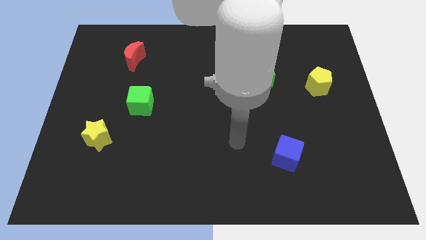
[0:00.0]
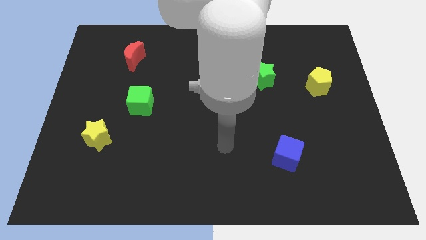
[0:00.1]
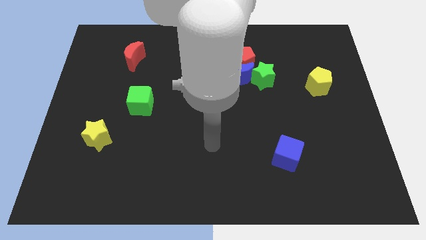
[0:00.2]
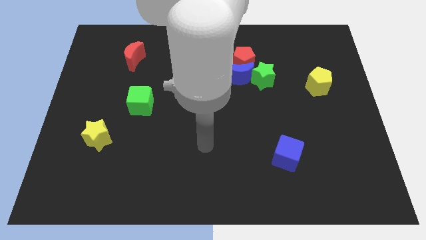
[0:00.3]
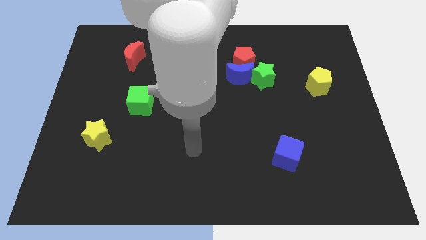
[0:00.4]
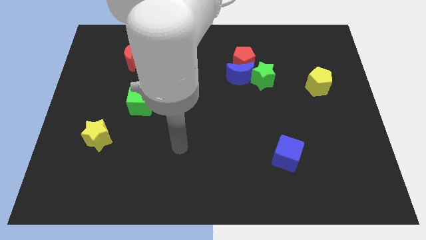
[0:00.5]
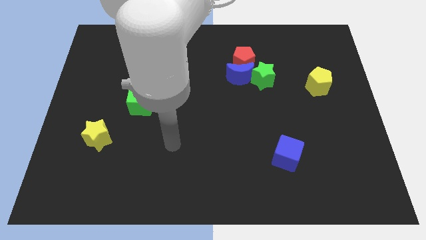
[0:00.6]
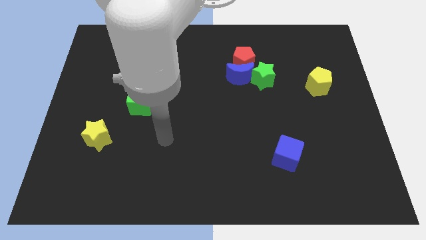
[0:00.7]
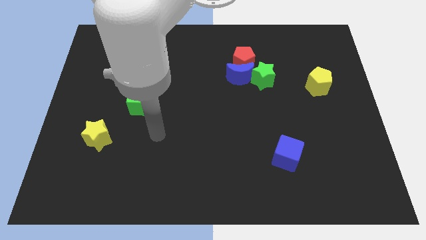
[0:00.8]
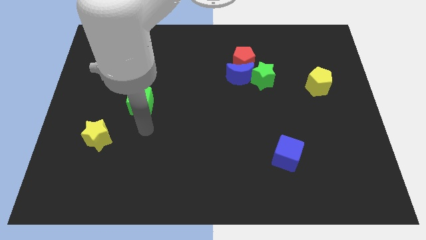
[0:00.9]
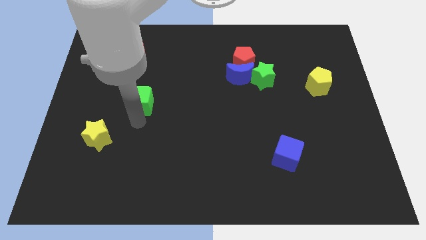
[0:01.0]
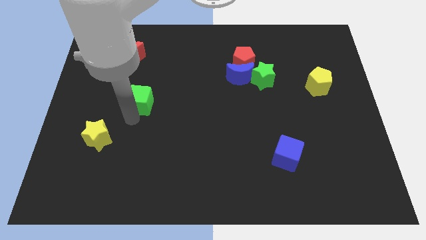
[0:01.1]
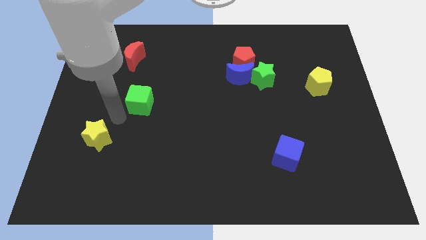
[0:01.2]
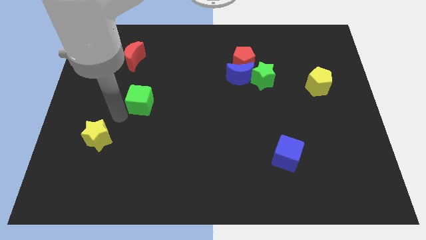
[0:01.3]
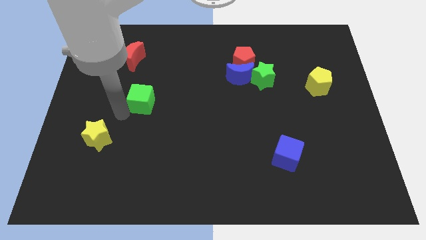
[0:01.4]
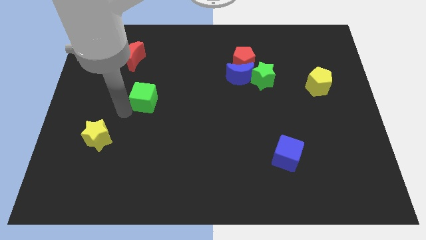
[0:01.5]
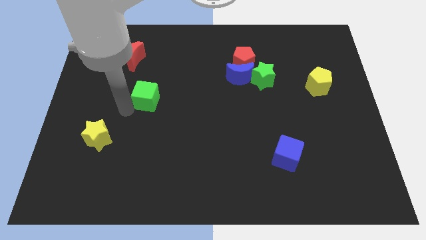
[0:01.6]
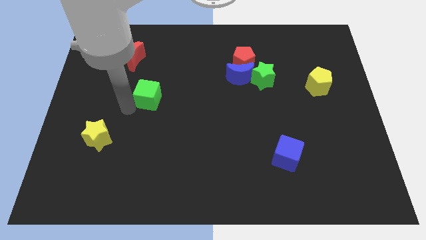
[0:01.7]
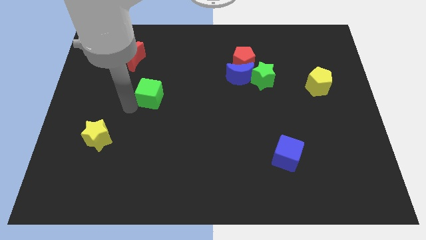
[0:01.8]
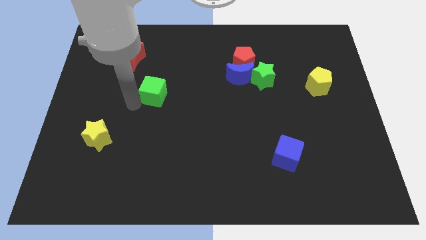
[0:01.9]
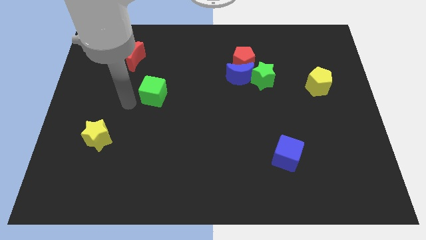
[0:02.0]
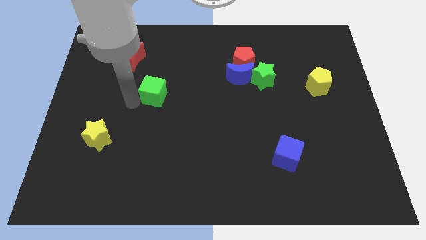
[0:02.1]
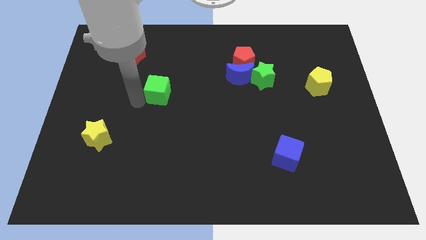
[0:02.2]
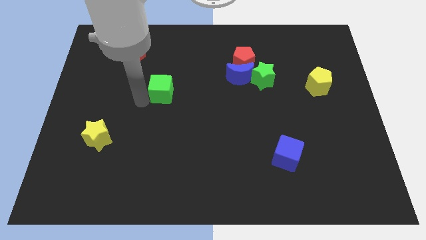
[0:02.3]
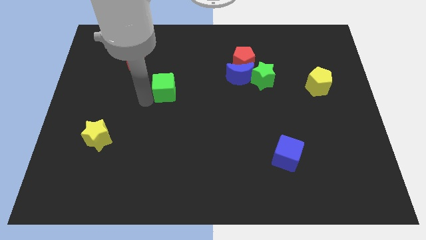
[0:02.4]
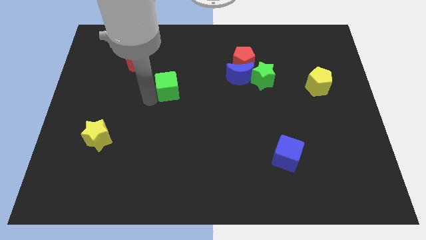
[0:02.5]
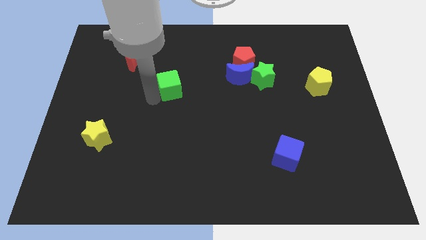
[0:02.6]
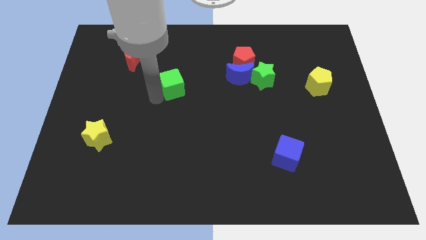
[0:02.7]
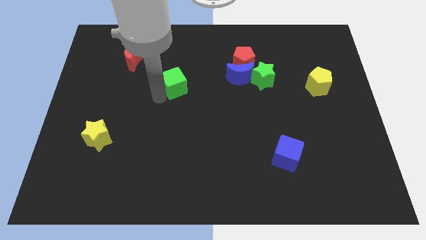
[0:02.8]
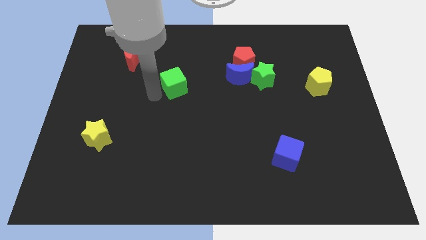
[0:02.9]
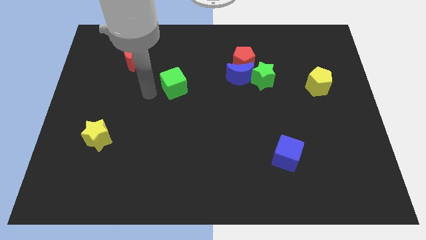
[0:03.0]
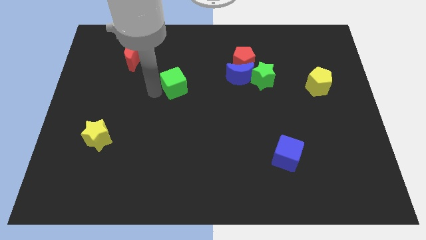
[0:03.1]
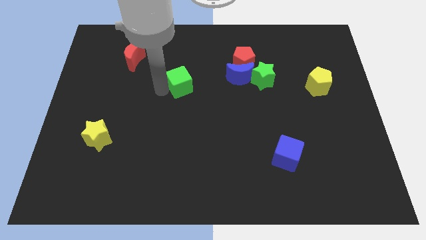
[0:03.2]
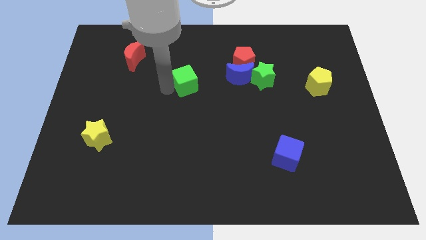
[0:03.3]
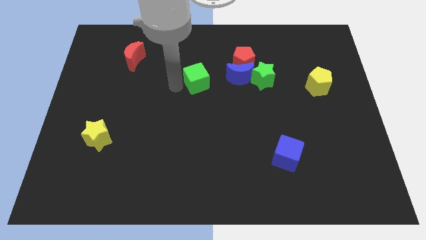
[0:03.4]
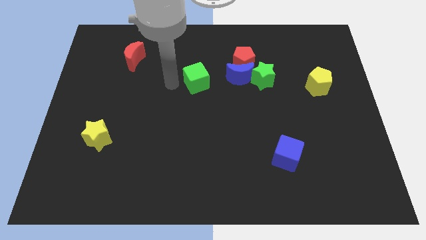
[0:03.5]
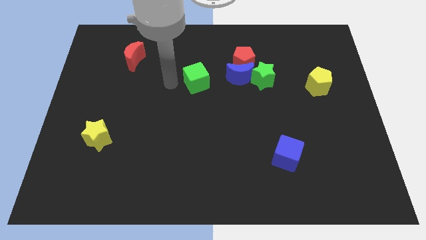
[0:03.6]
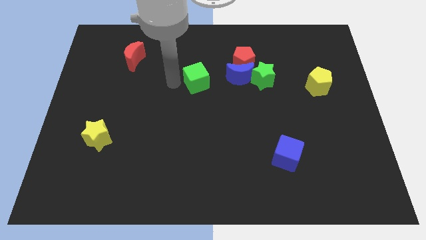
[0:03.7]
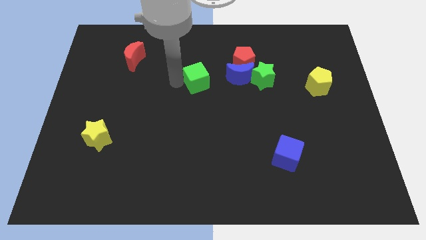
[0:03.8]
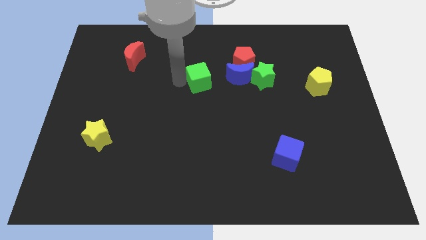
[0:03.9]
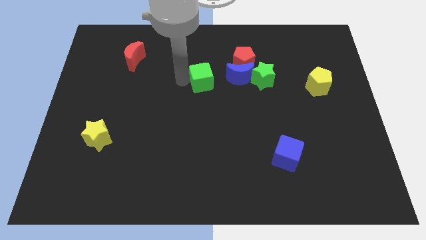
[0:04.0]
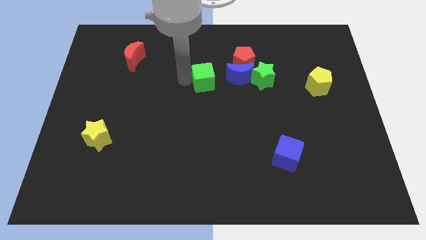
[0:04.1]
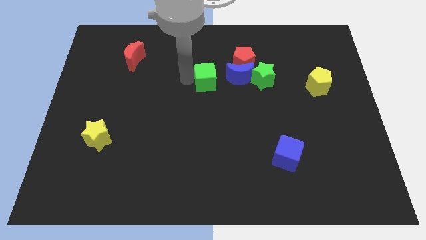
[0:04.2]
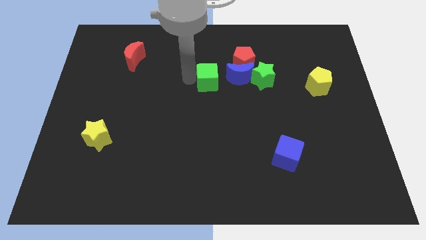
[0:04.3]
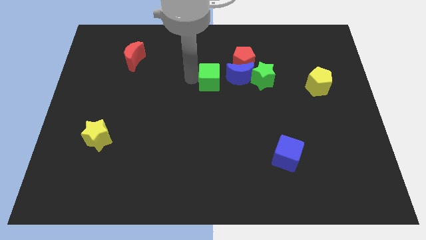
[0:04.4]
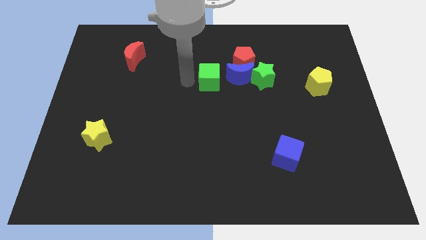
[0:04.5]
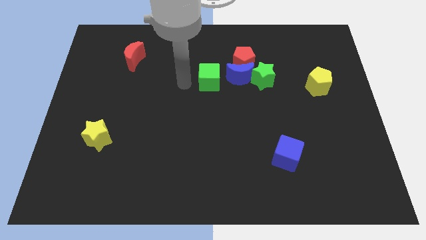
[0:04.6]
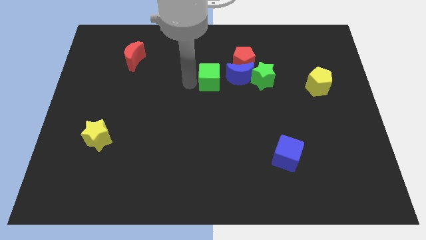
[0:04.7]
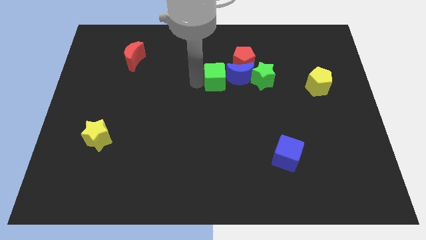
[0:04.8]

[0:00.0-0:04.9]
push the green cube to the blue moon

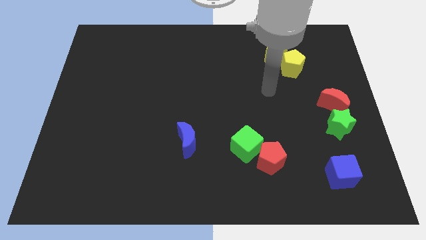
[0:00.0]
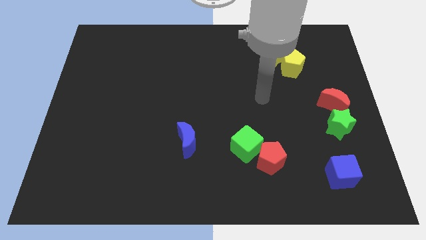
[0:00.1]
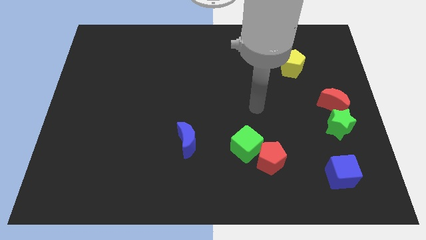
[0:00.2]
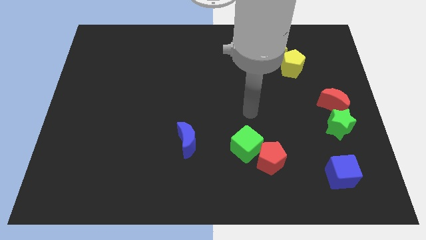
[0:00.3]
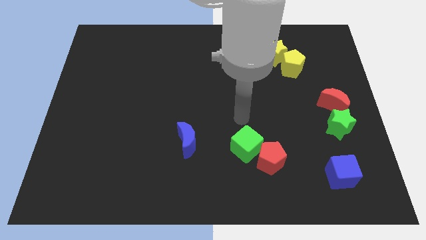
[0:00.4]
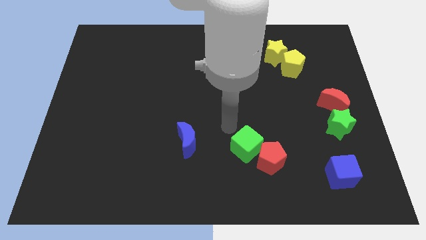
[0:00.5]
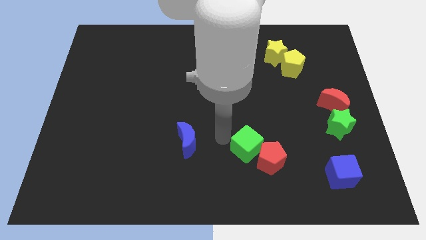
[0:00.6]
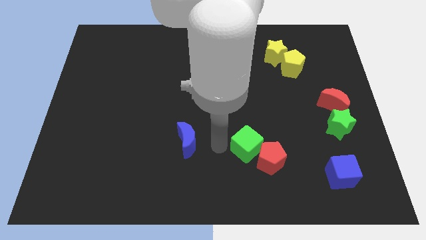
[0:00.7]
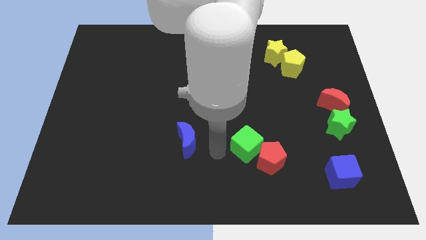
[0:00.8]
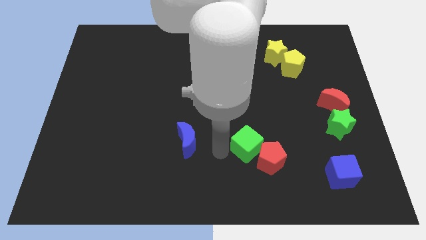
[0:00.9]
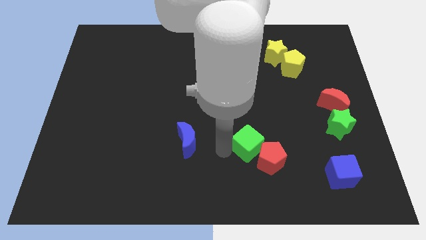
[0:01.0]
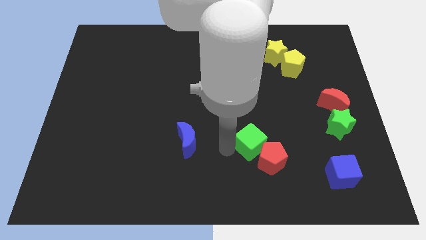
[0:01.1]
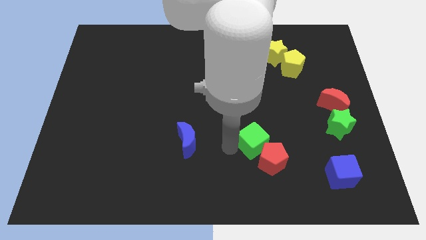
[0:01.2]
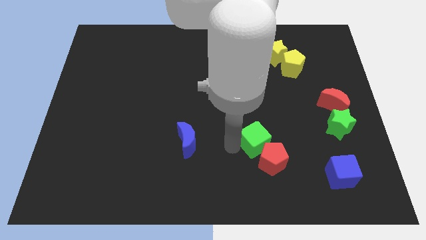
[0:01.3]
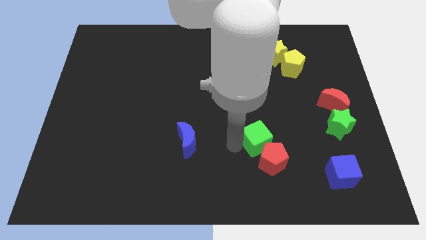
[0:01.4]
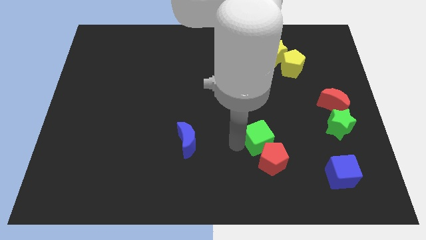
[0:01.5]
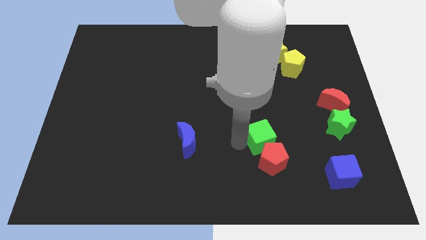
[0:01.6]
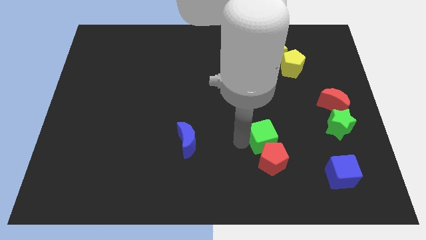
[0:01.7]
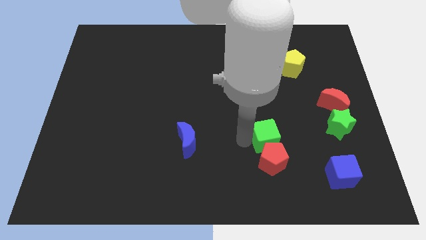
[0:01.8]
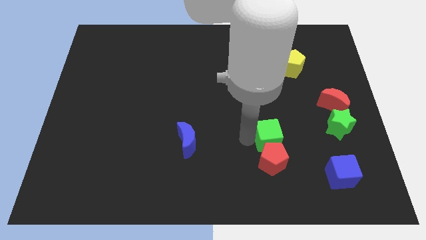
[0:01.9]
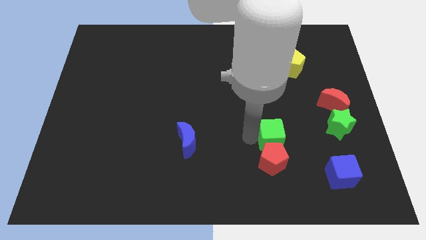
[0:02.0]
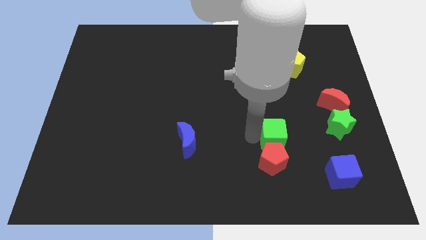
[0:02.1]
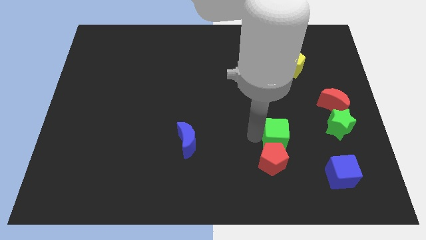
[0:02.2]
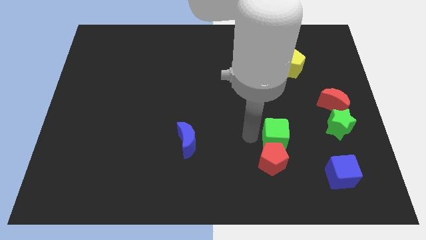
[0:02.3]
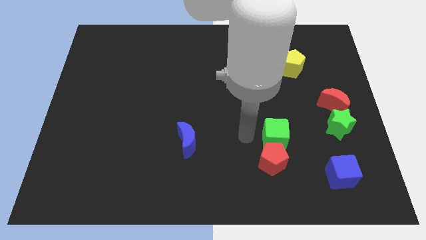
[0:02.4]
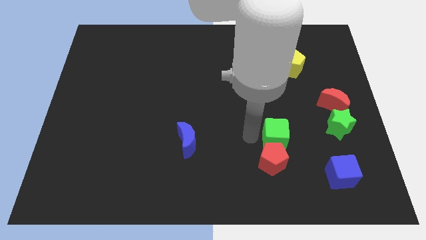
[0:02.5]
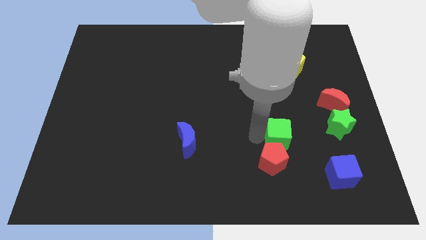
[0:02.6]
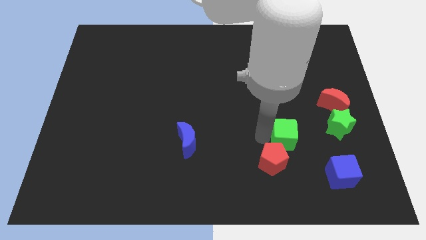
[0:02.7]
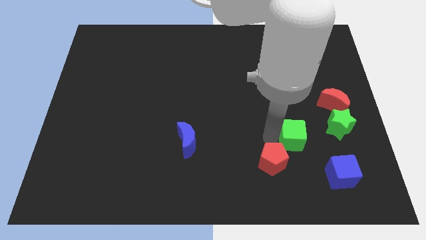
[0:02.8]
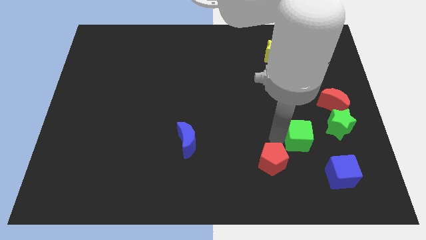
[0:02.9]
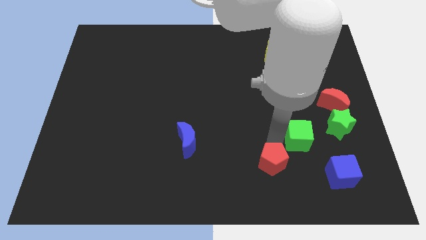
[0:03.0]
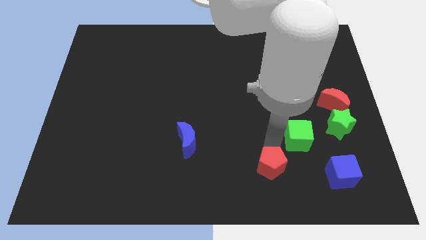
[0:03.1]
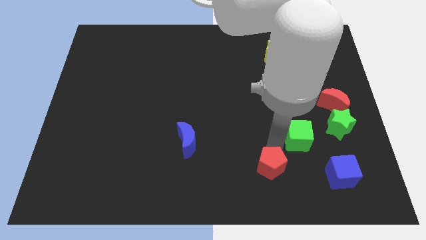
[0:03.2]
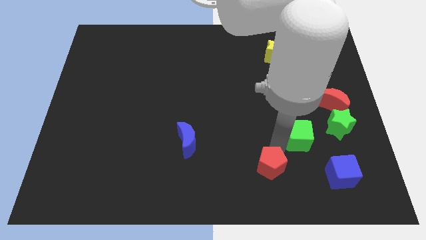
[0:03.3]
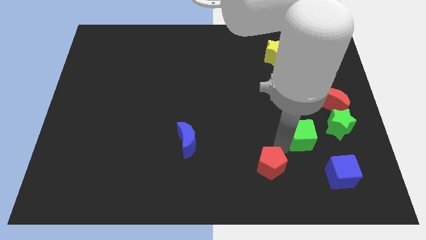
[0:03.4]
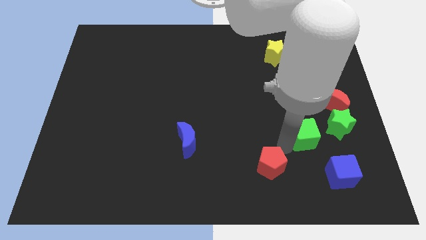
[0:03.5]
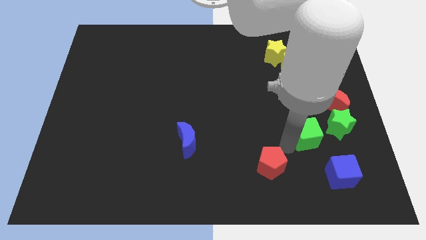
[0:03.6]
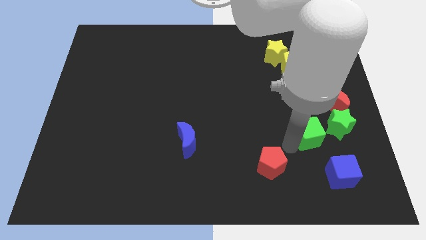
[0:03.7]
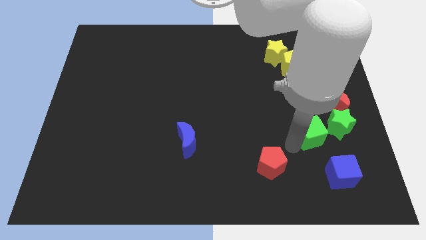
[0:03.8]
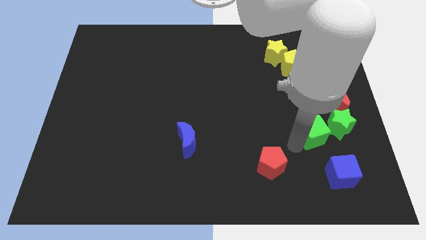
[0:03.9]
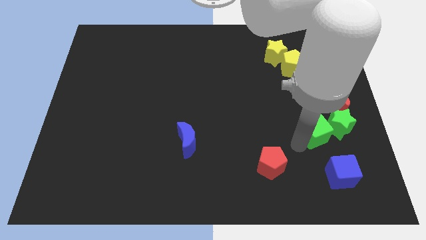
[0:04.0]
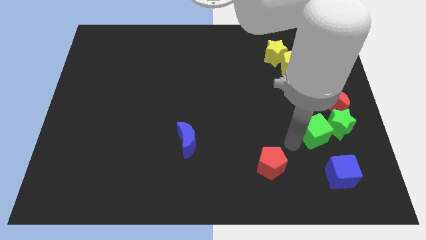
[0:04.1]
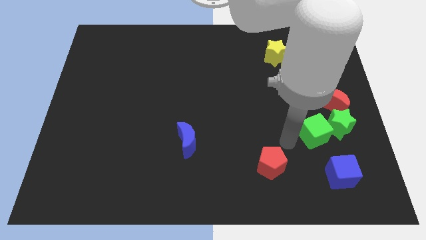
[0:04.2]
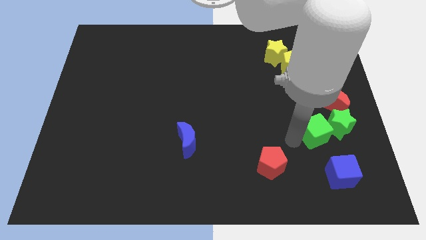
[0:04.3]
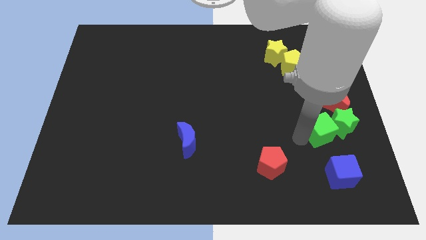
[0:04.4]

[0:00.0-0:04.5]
put the green cube towards the green star
